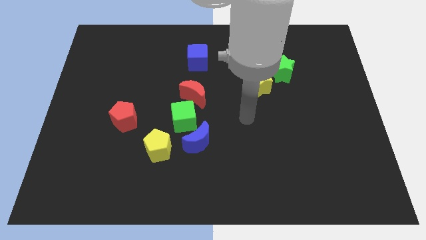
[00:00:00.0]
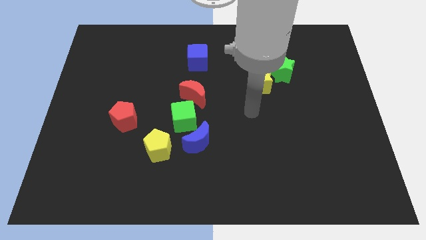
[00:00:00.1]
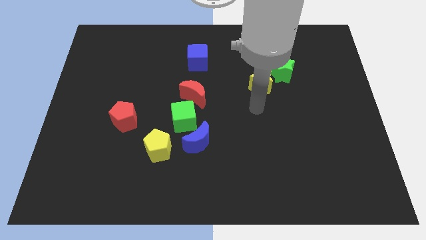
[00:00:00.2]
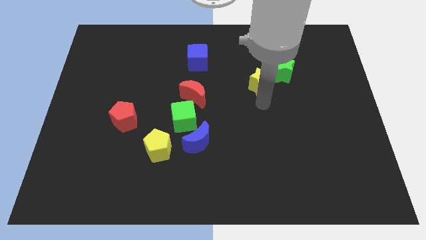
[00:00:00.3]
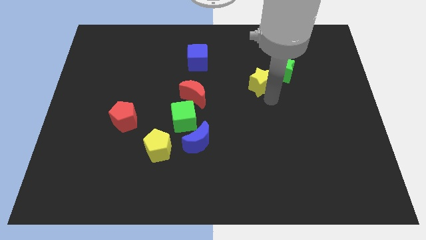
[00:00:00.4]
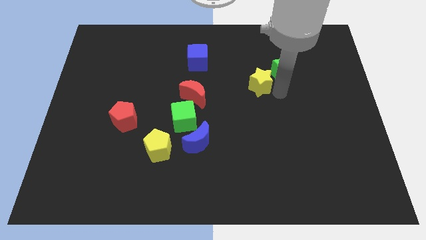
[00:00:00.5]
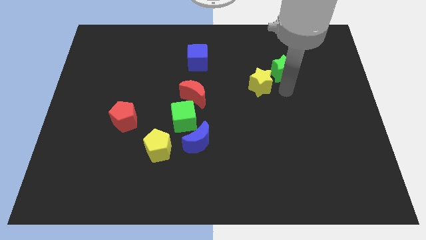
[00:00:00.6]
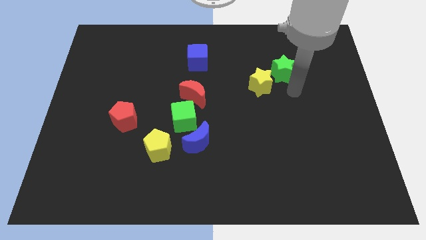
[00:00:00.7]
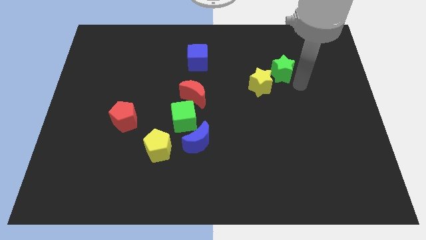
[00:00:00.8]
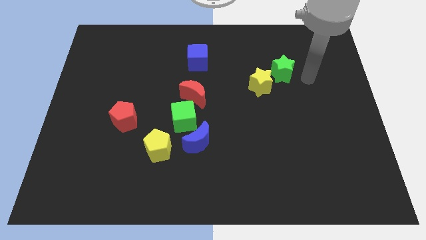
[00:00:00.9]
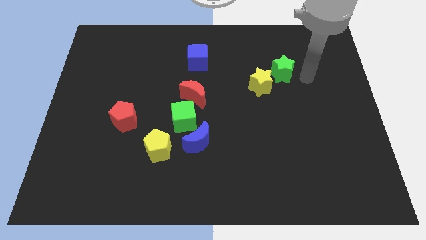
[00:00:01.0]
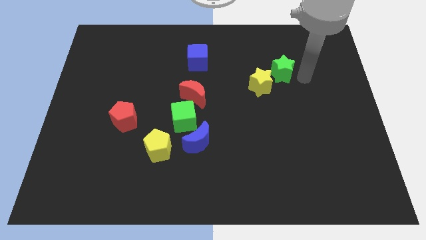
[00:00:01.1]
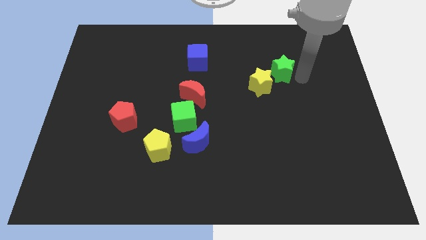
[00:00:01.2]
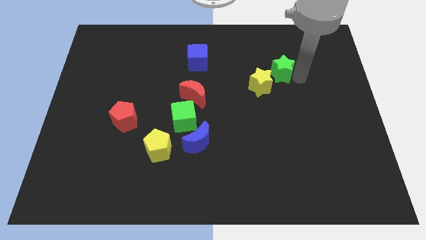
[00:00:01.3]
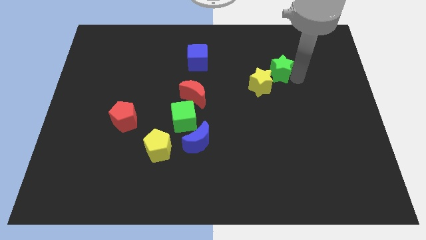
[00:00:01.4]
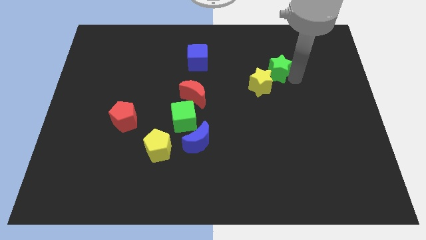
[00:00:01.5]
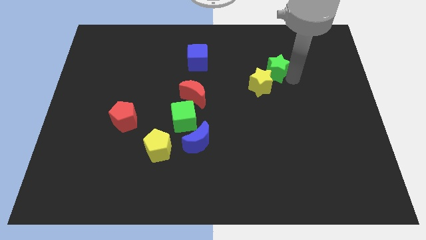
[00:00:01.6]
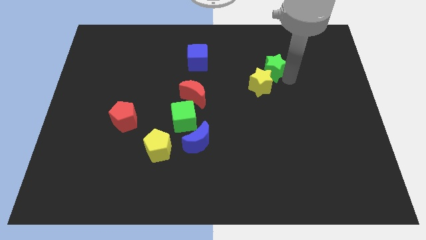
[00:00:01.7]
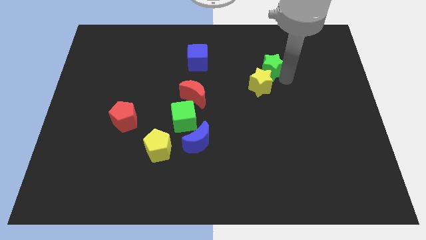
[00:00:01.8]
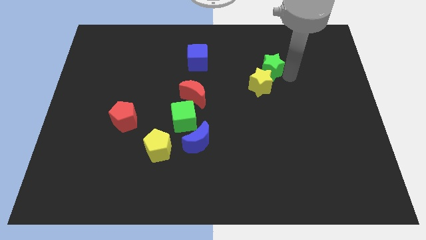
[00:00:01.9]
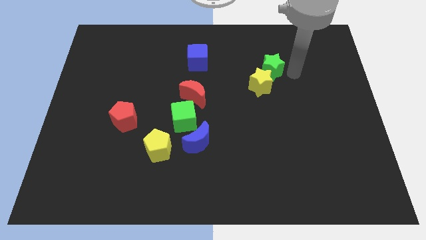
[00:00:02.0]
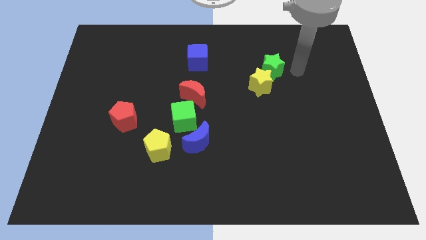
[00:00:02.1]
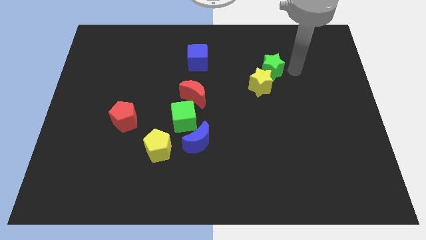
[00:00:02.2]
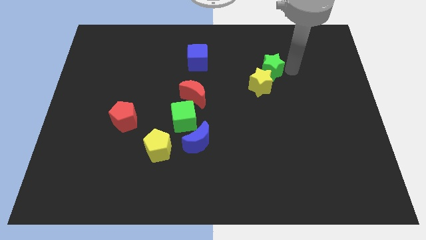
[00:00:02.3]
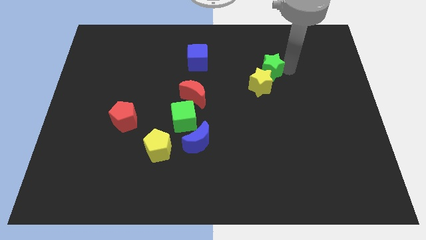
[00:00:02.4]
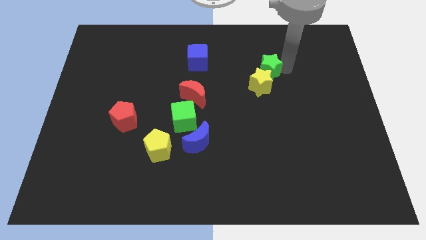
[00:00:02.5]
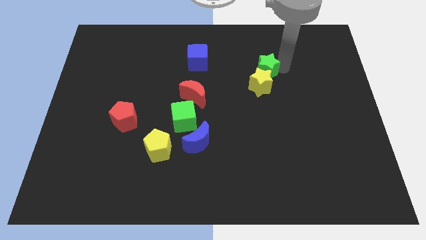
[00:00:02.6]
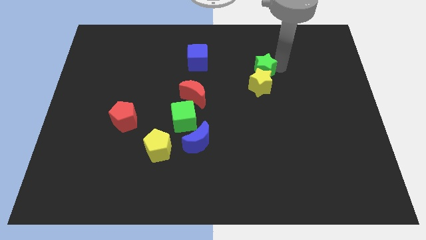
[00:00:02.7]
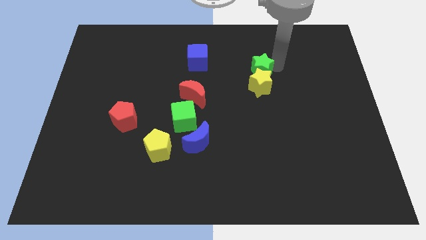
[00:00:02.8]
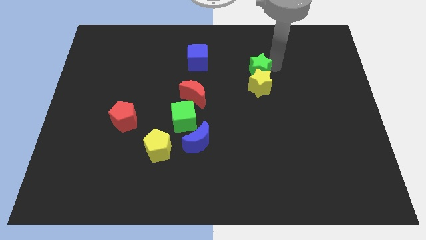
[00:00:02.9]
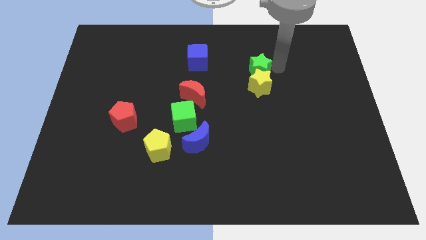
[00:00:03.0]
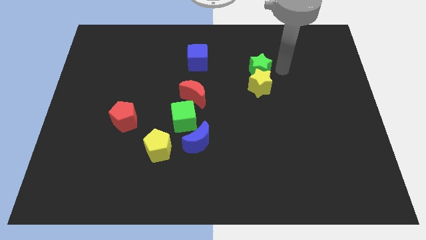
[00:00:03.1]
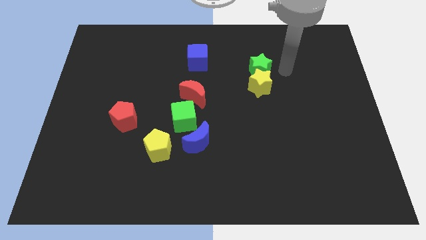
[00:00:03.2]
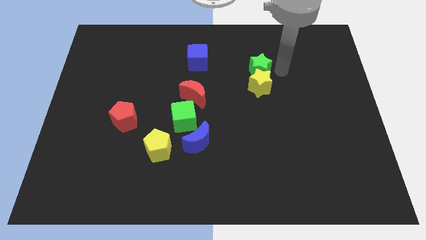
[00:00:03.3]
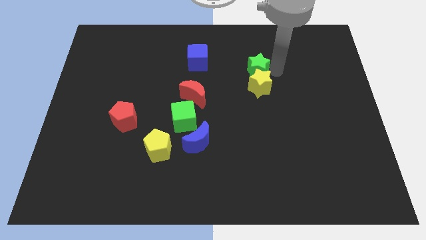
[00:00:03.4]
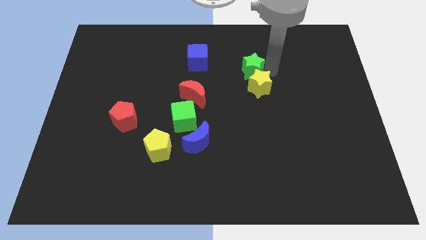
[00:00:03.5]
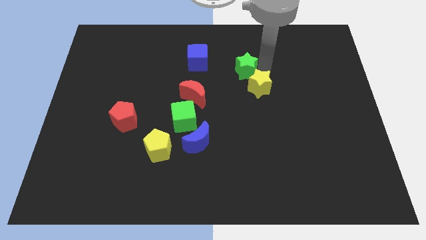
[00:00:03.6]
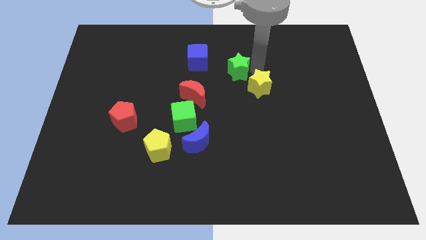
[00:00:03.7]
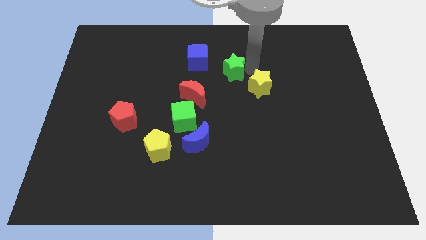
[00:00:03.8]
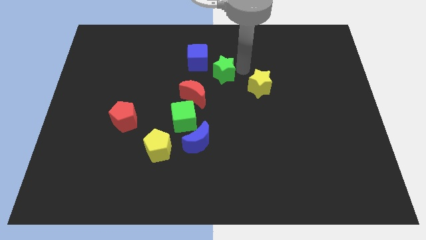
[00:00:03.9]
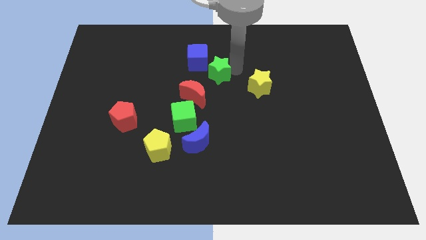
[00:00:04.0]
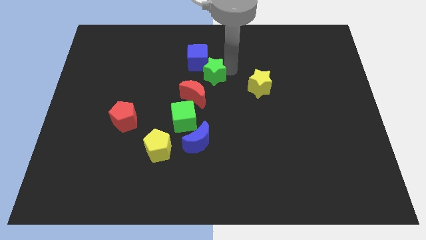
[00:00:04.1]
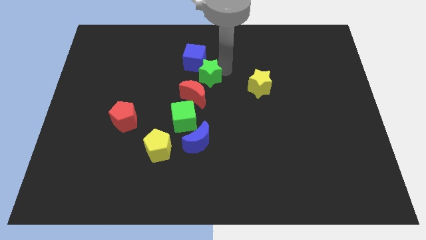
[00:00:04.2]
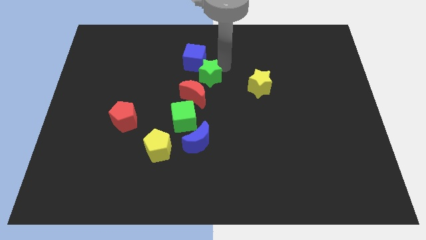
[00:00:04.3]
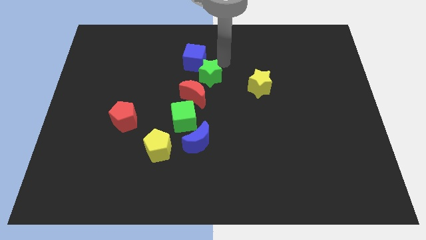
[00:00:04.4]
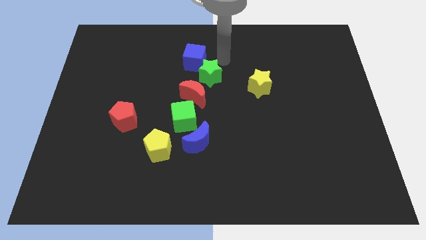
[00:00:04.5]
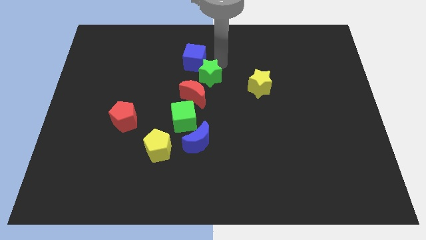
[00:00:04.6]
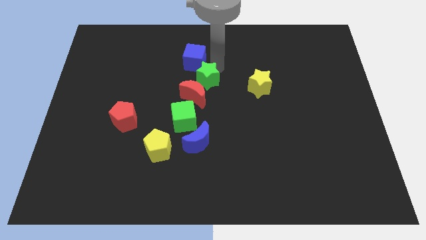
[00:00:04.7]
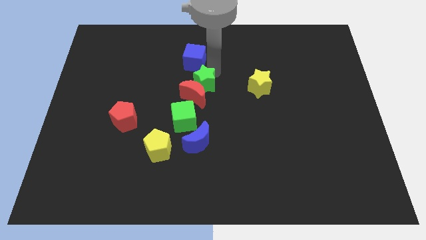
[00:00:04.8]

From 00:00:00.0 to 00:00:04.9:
move the green star to the red moon

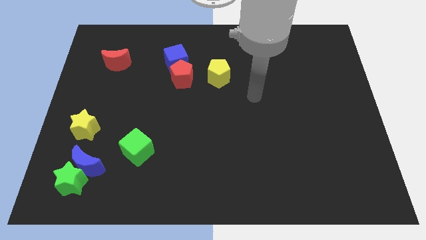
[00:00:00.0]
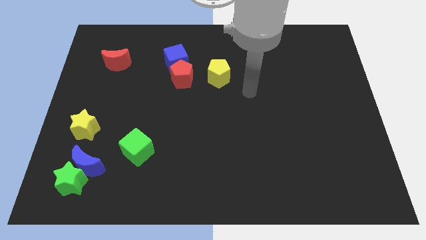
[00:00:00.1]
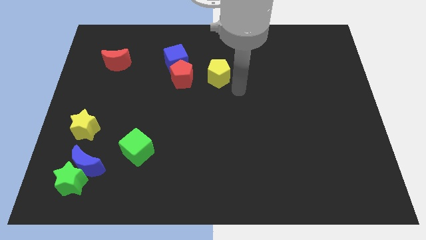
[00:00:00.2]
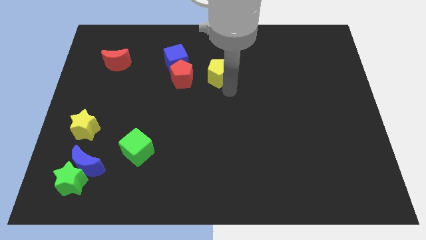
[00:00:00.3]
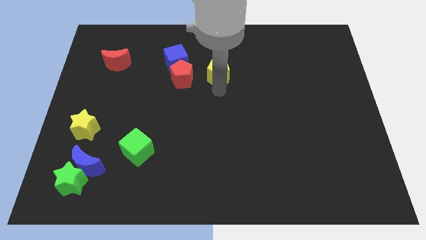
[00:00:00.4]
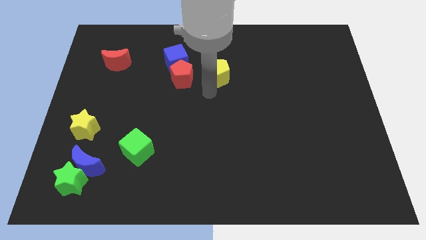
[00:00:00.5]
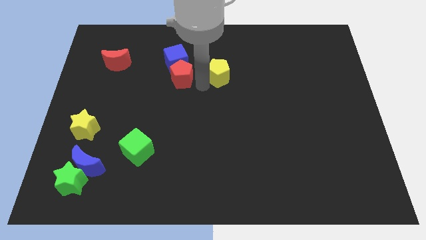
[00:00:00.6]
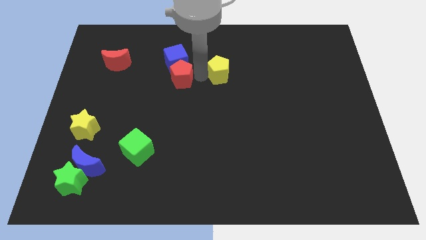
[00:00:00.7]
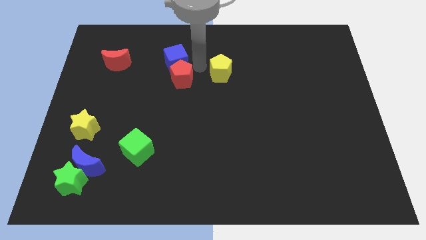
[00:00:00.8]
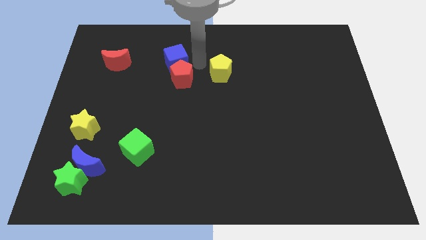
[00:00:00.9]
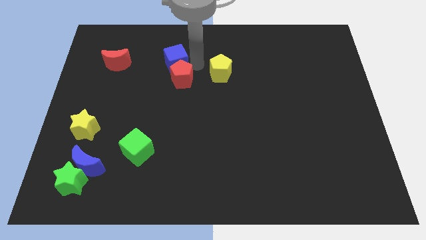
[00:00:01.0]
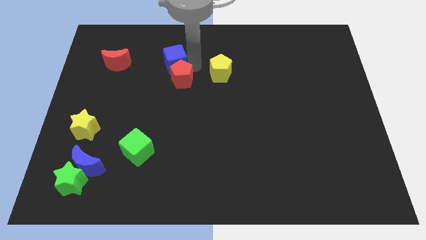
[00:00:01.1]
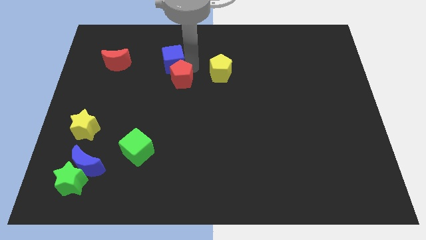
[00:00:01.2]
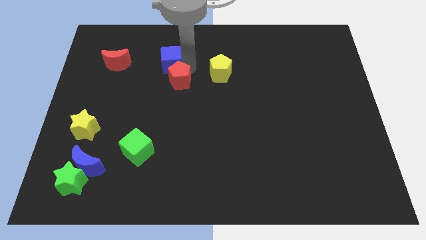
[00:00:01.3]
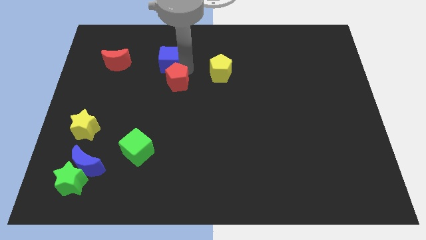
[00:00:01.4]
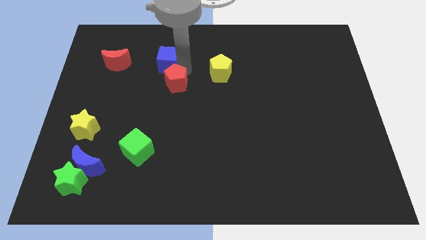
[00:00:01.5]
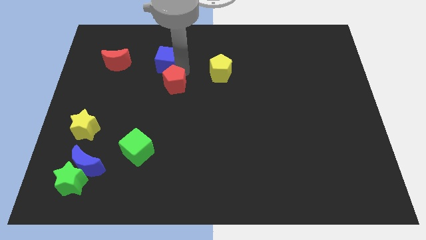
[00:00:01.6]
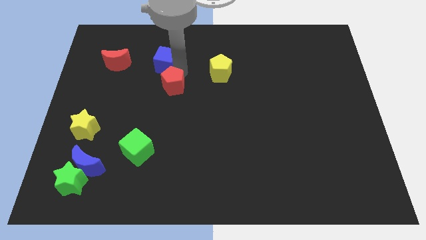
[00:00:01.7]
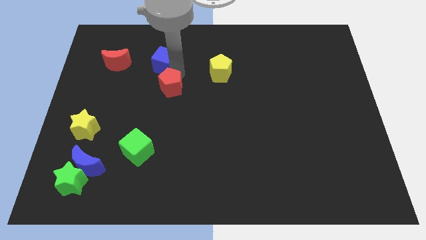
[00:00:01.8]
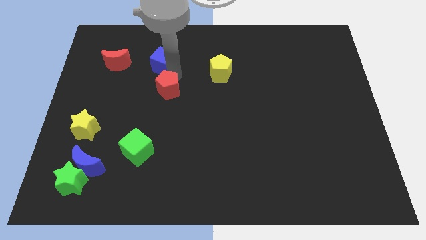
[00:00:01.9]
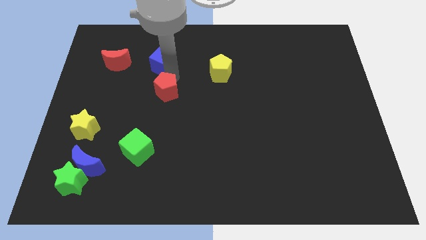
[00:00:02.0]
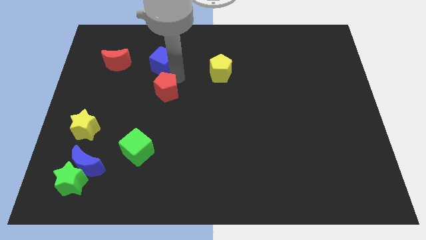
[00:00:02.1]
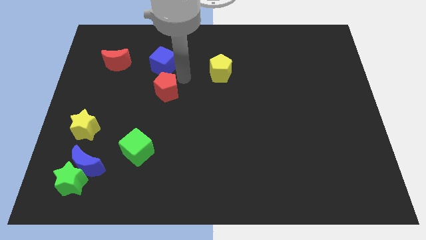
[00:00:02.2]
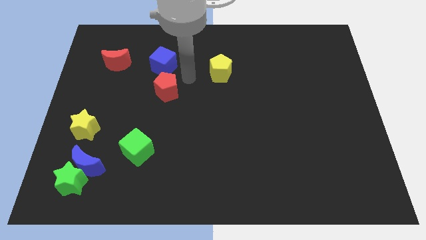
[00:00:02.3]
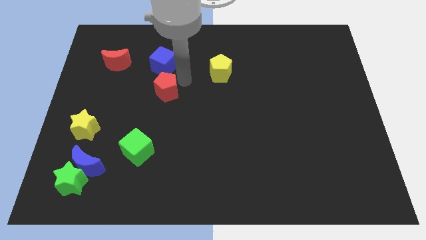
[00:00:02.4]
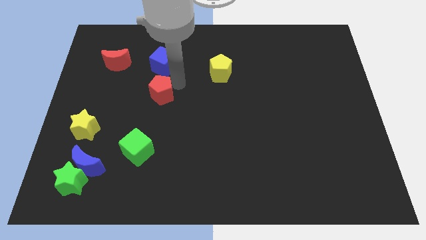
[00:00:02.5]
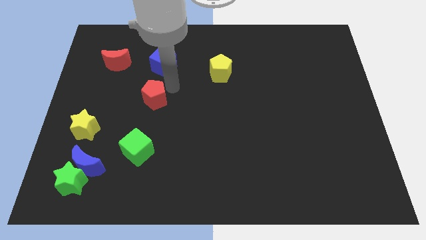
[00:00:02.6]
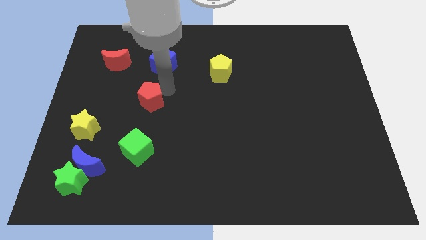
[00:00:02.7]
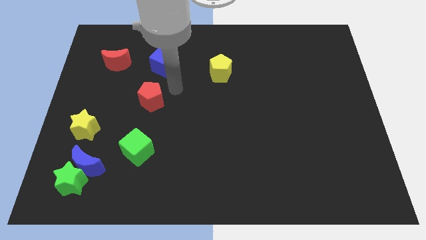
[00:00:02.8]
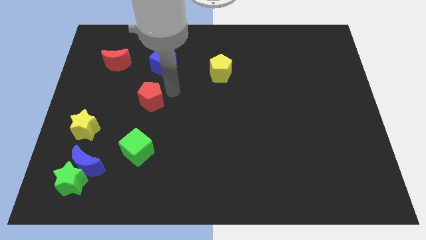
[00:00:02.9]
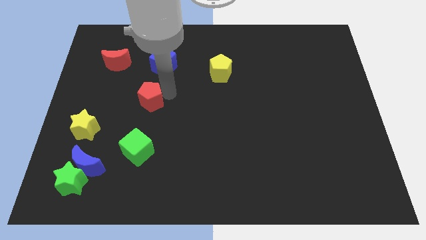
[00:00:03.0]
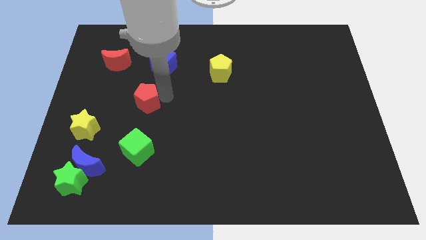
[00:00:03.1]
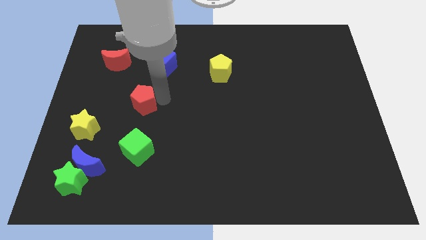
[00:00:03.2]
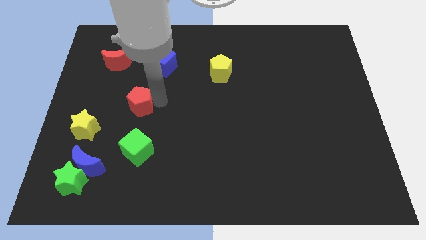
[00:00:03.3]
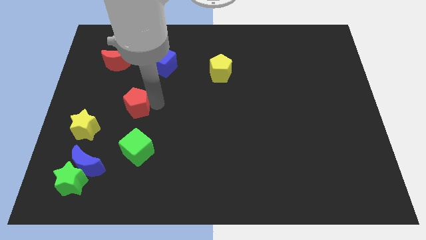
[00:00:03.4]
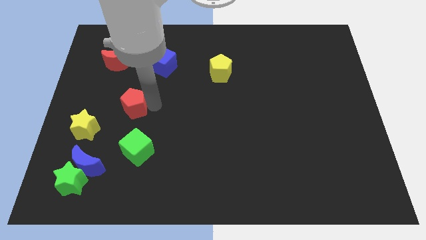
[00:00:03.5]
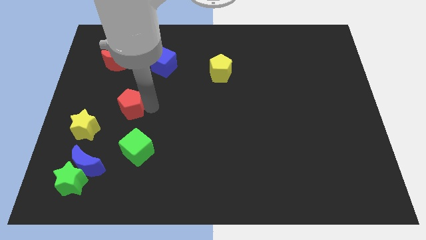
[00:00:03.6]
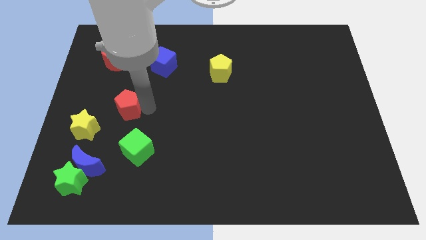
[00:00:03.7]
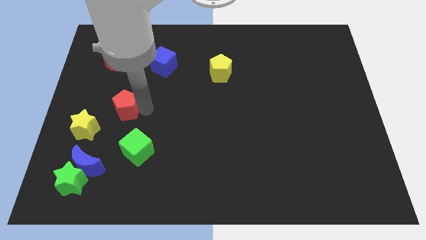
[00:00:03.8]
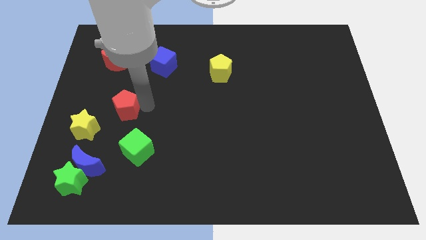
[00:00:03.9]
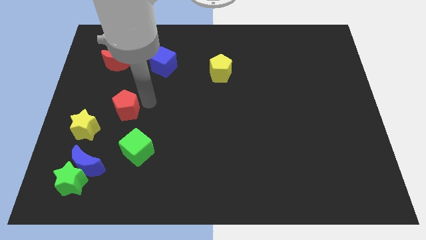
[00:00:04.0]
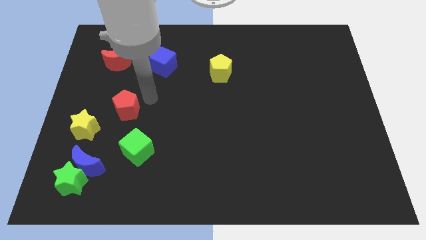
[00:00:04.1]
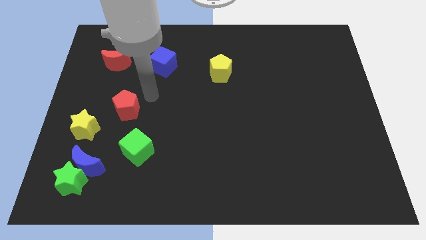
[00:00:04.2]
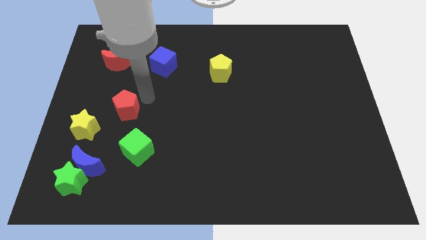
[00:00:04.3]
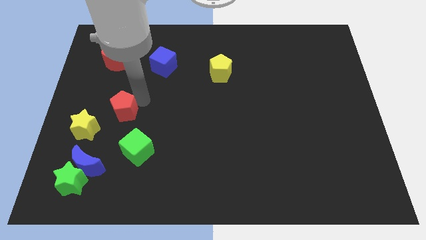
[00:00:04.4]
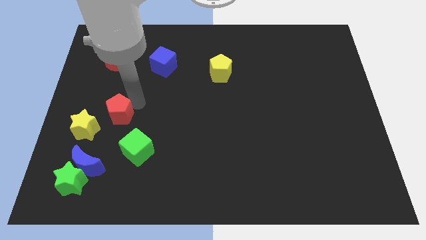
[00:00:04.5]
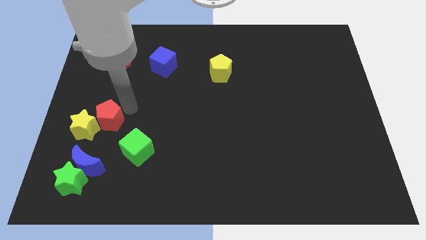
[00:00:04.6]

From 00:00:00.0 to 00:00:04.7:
push the red pentagon towards the yellow star
